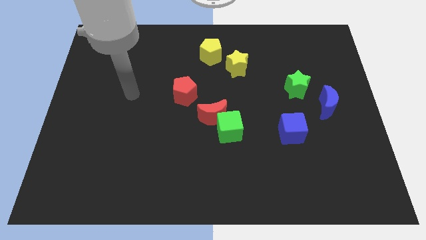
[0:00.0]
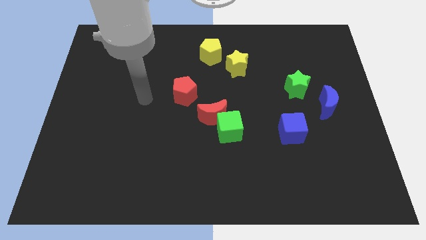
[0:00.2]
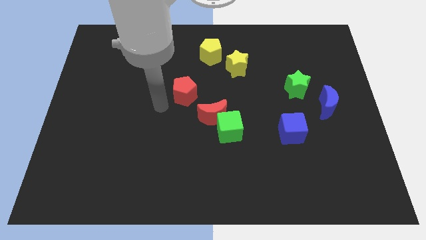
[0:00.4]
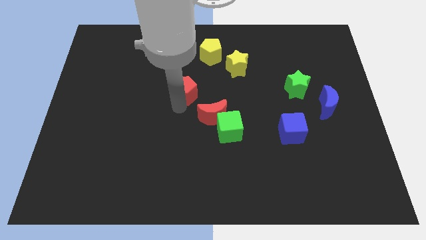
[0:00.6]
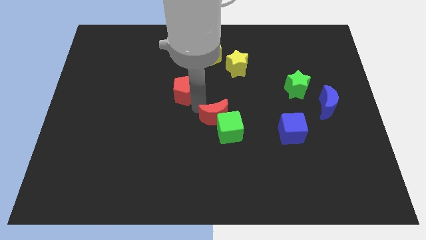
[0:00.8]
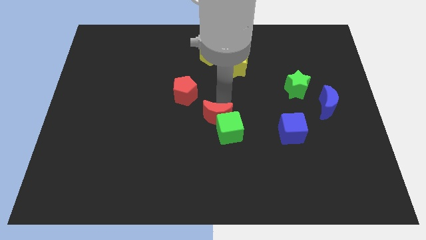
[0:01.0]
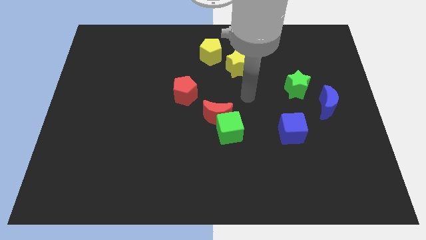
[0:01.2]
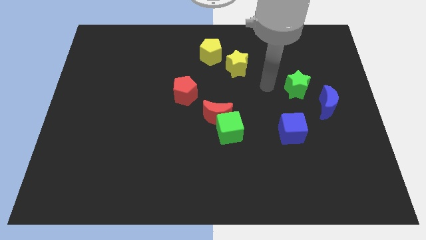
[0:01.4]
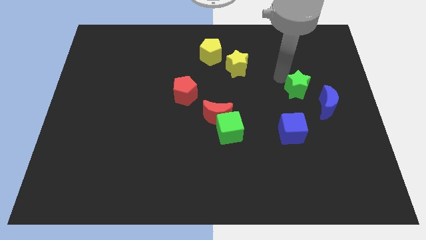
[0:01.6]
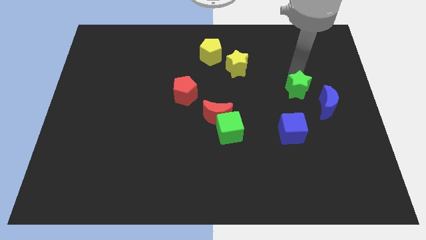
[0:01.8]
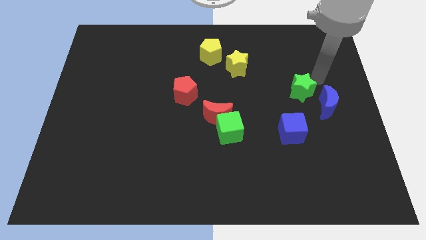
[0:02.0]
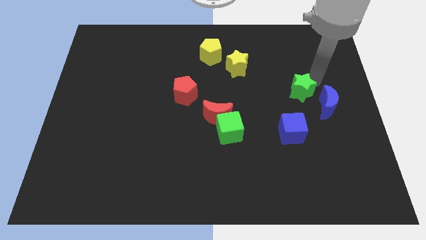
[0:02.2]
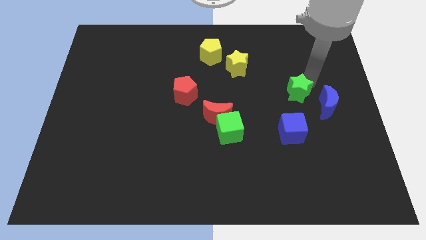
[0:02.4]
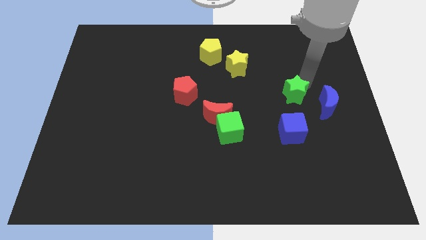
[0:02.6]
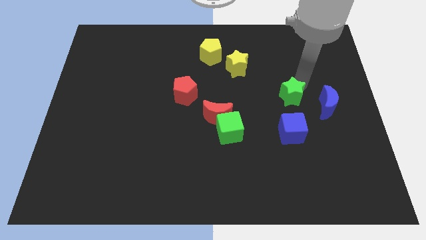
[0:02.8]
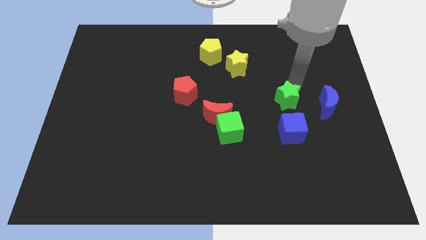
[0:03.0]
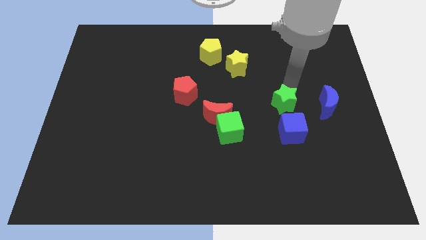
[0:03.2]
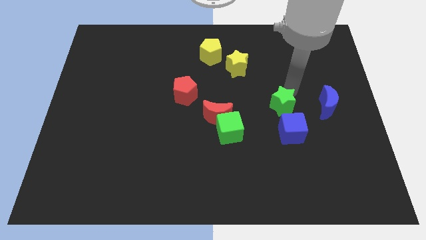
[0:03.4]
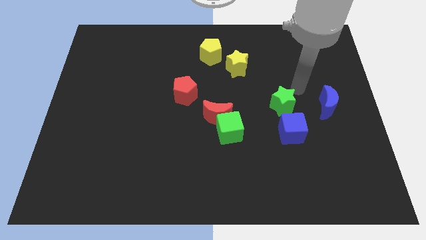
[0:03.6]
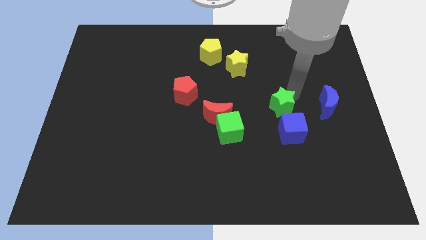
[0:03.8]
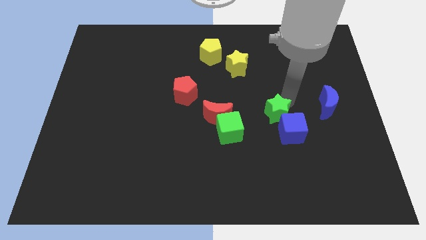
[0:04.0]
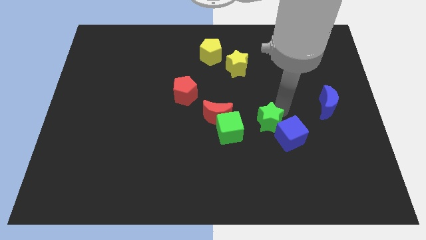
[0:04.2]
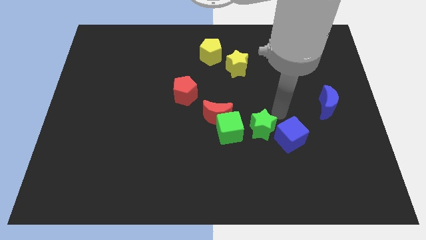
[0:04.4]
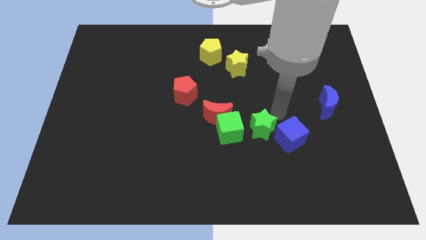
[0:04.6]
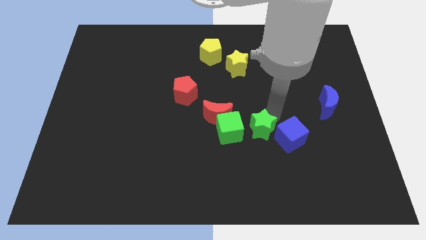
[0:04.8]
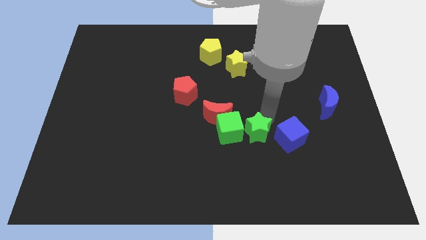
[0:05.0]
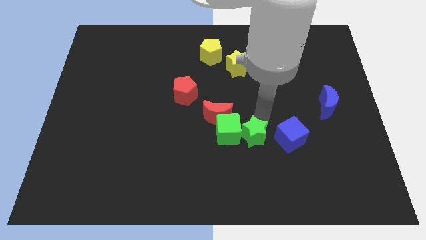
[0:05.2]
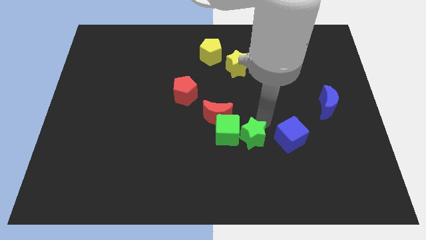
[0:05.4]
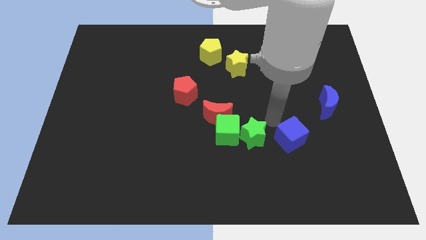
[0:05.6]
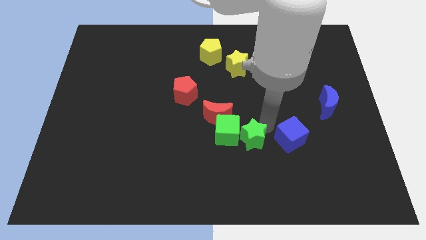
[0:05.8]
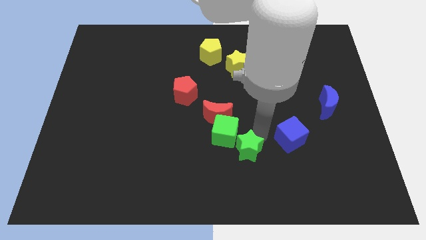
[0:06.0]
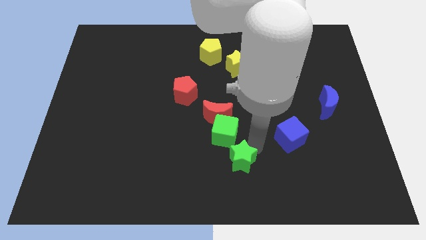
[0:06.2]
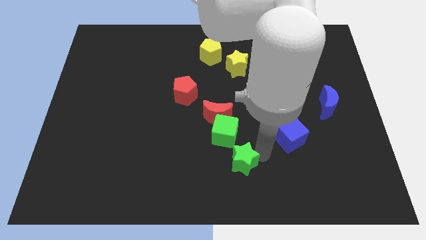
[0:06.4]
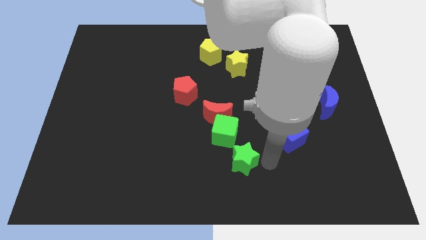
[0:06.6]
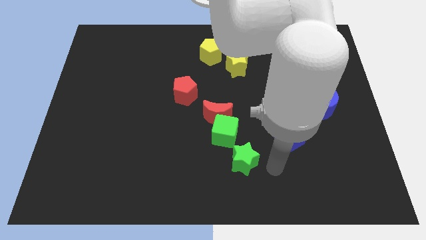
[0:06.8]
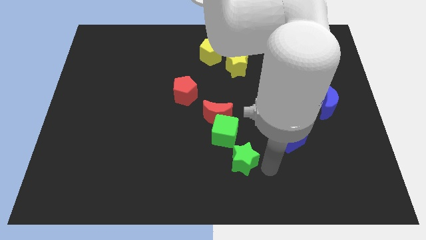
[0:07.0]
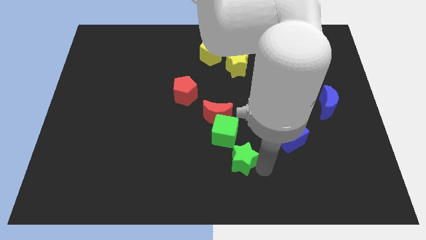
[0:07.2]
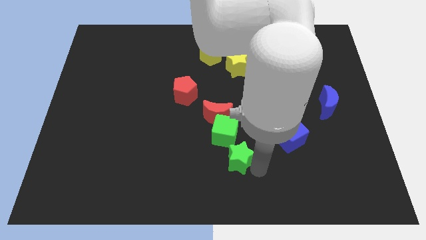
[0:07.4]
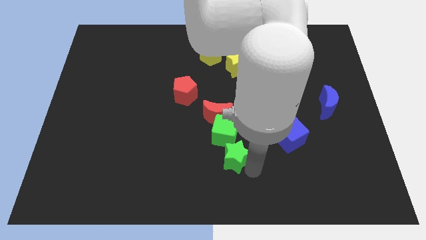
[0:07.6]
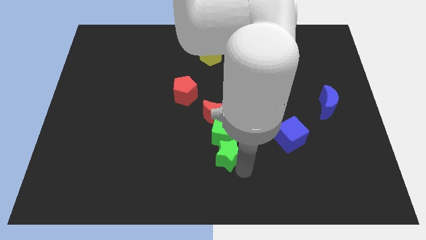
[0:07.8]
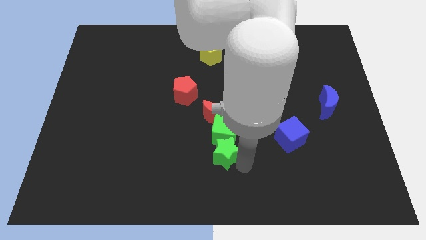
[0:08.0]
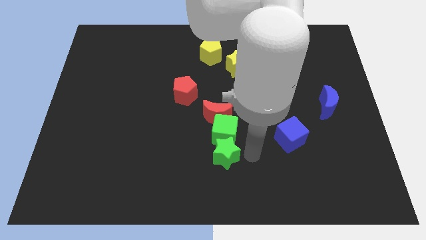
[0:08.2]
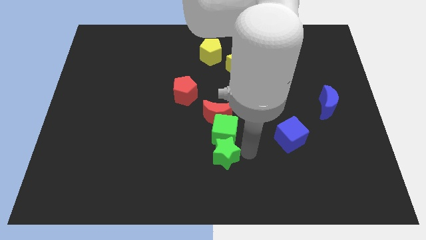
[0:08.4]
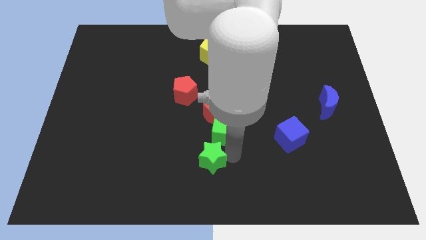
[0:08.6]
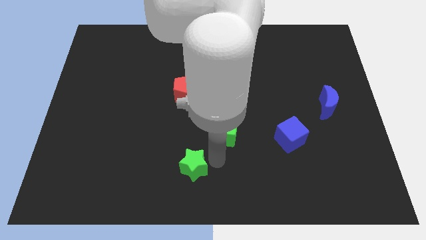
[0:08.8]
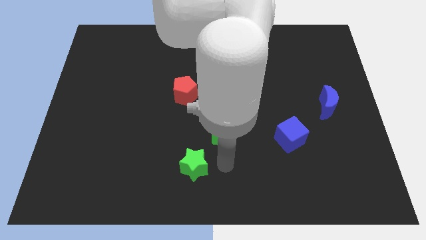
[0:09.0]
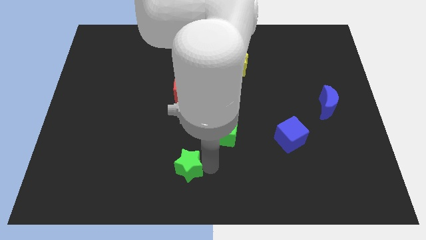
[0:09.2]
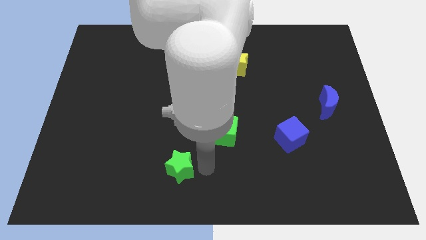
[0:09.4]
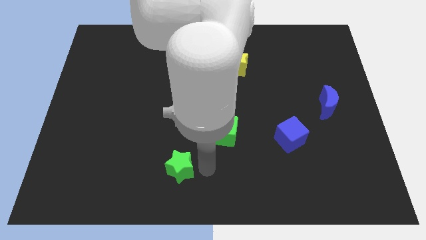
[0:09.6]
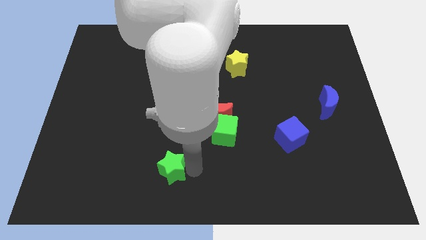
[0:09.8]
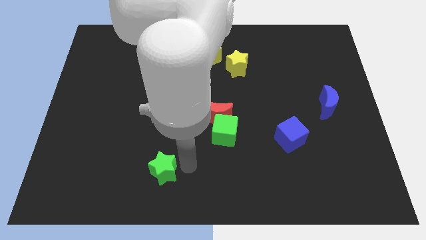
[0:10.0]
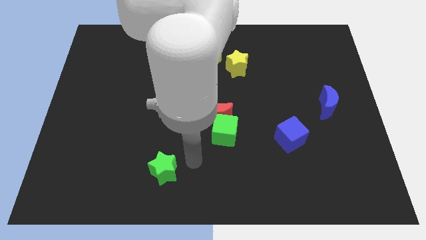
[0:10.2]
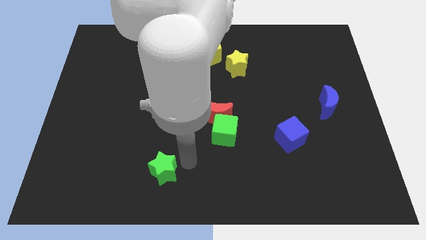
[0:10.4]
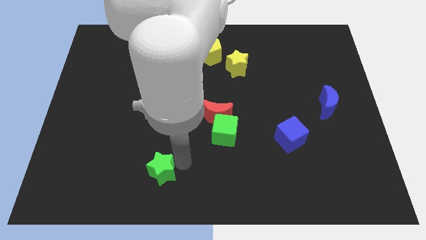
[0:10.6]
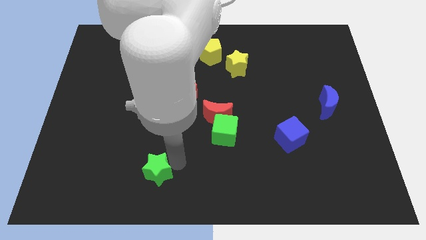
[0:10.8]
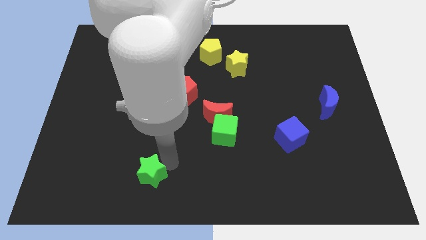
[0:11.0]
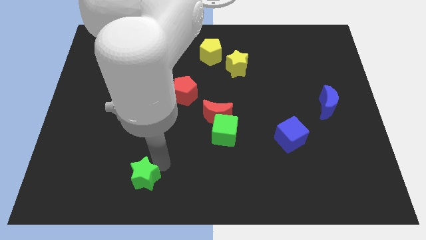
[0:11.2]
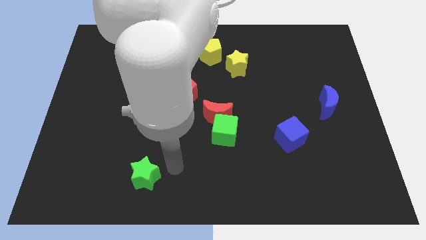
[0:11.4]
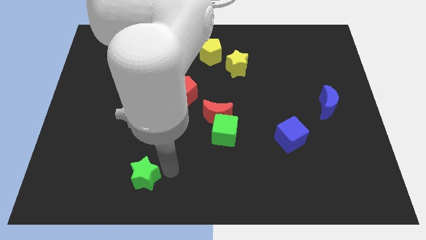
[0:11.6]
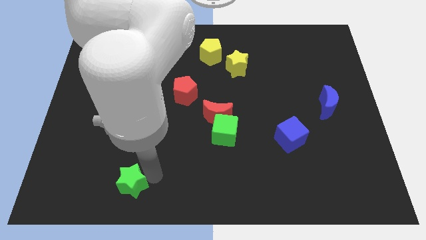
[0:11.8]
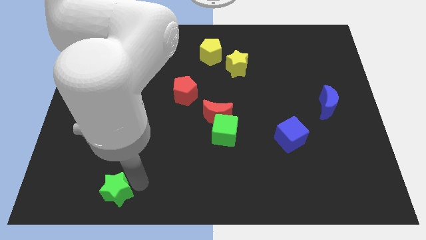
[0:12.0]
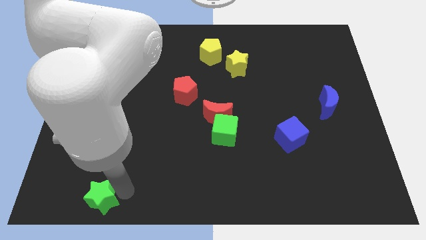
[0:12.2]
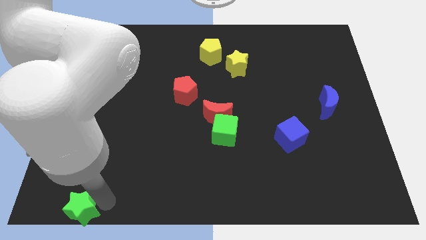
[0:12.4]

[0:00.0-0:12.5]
push the green star to the bottom left
